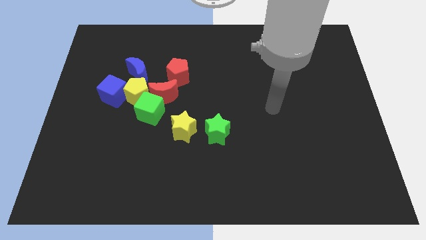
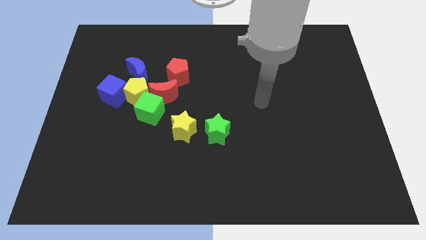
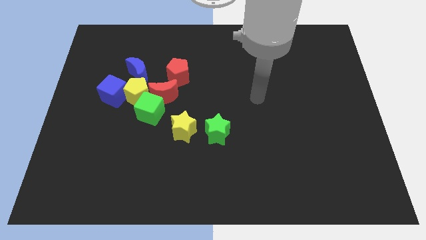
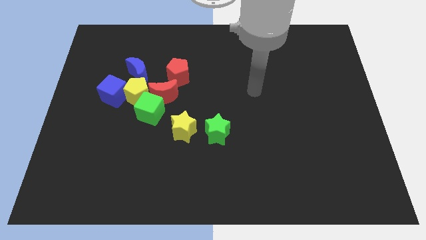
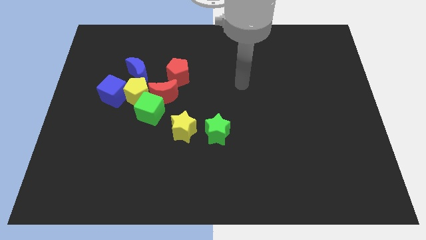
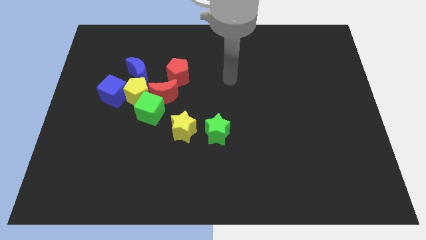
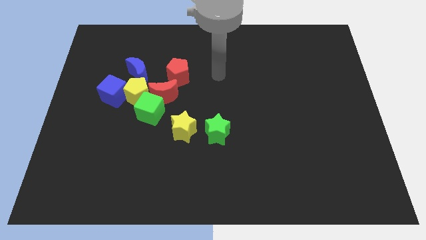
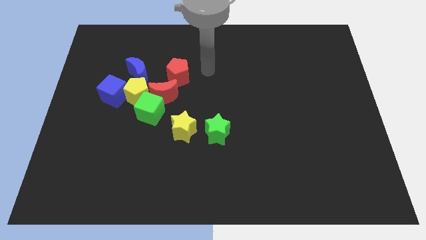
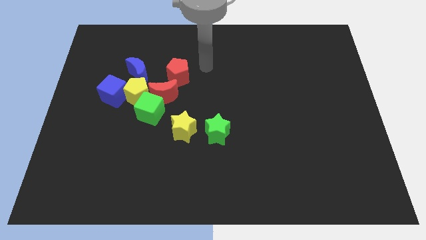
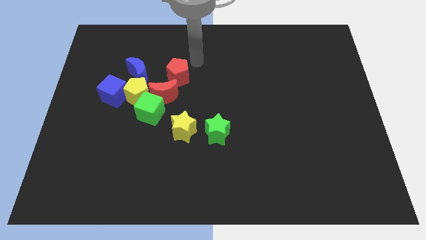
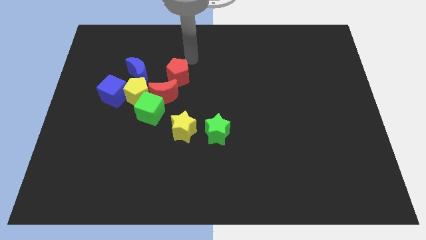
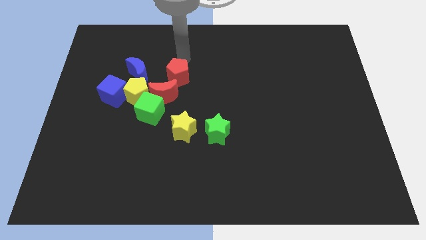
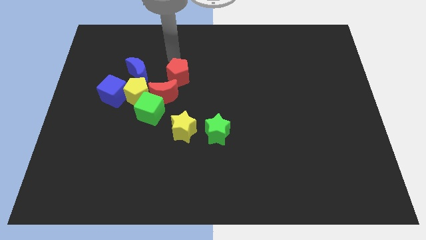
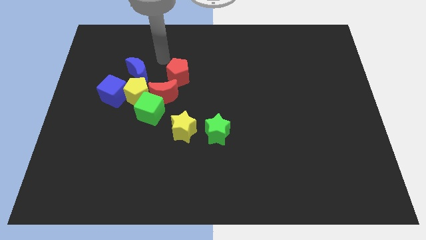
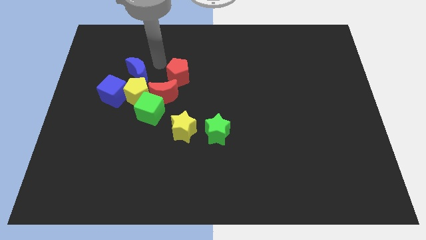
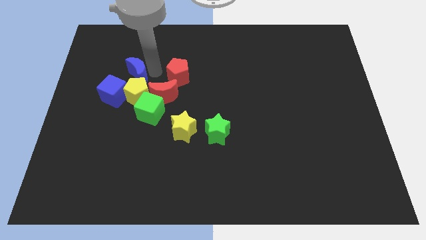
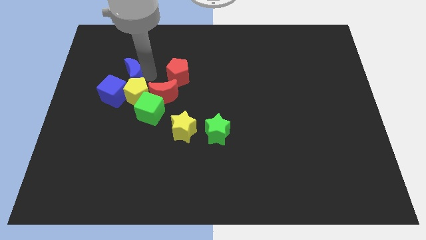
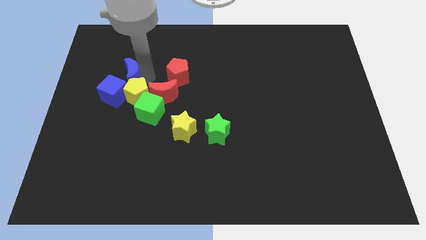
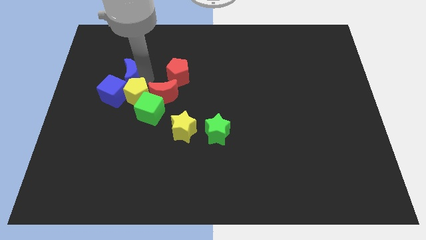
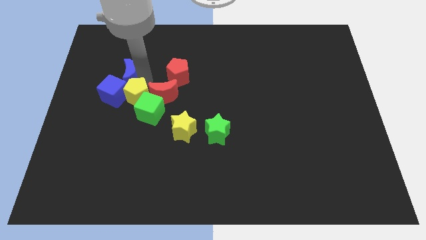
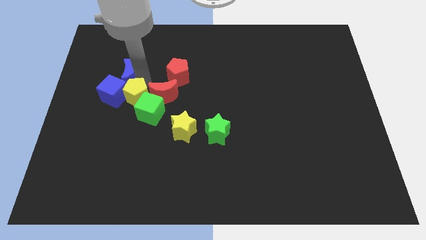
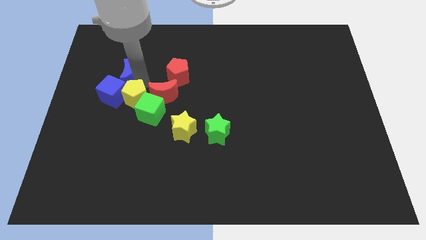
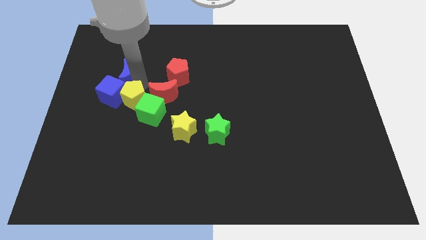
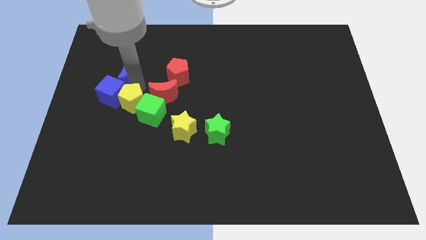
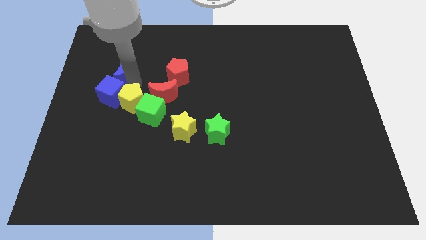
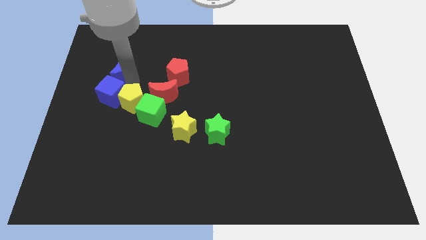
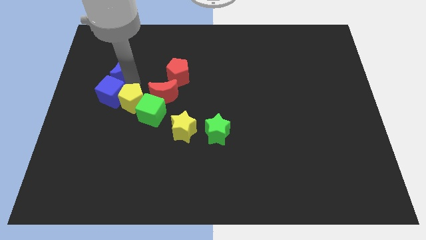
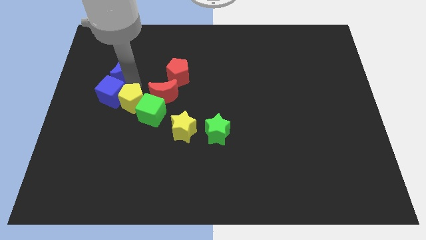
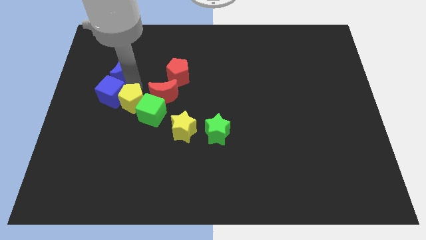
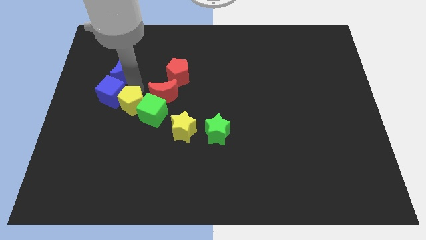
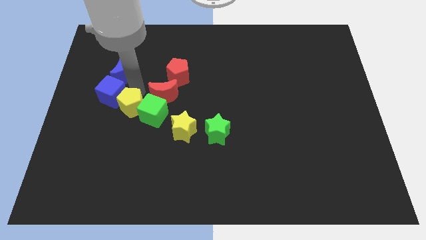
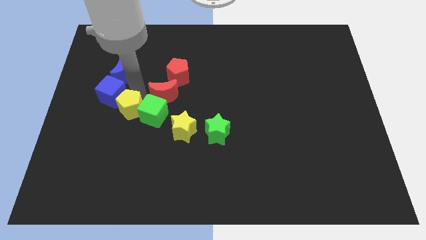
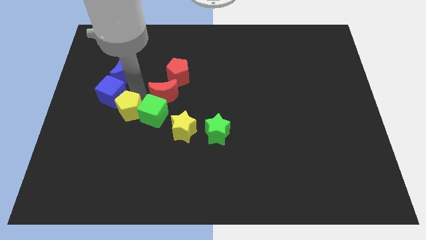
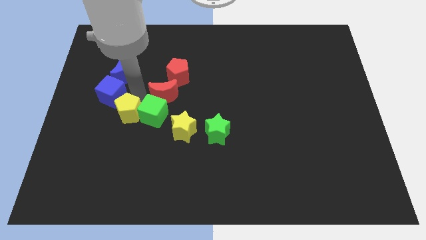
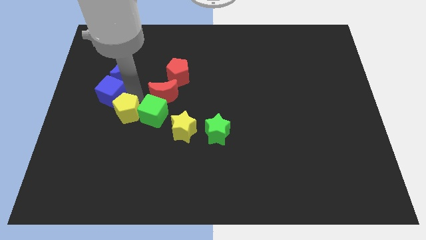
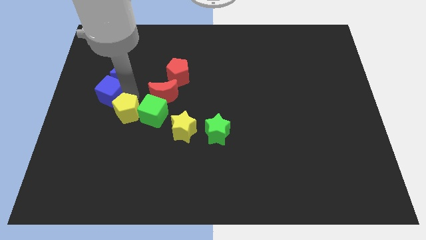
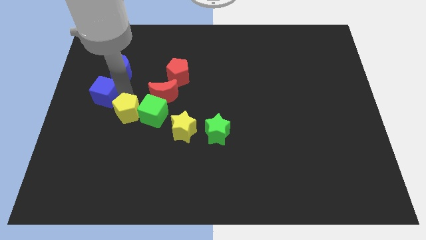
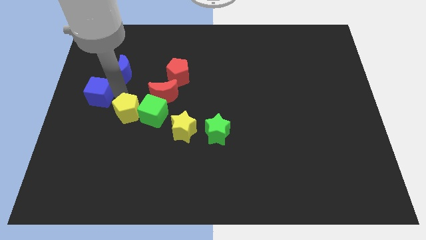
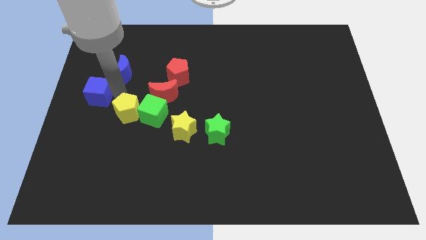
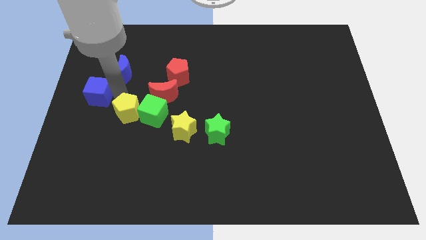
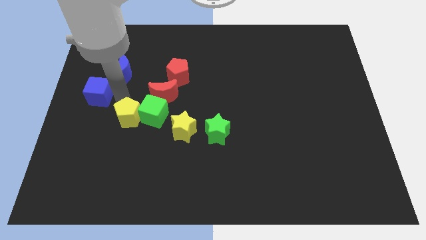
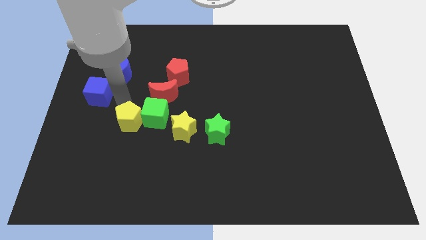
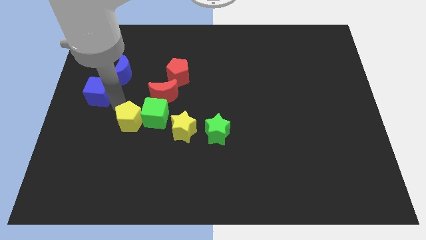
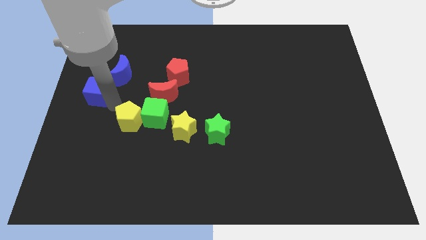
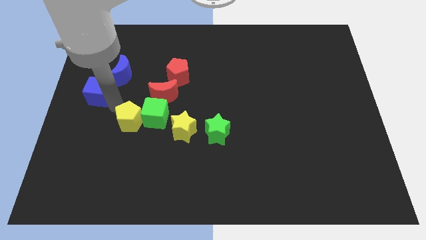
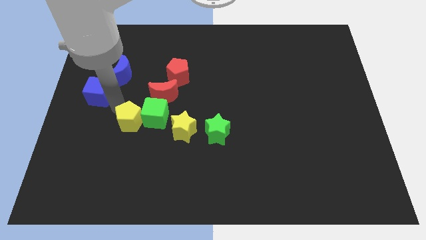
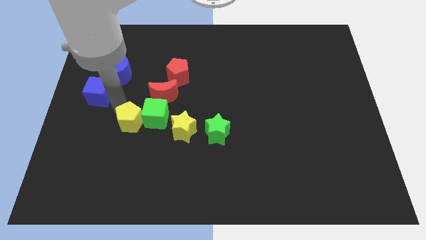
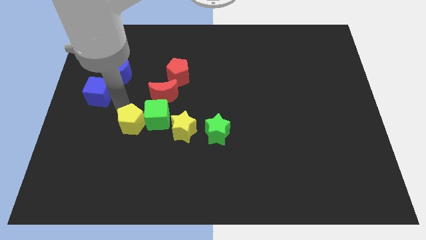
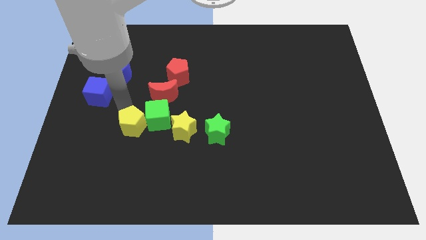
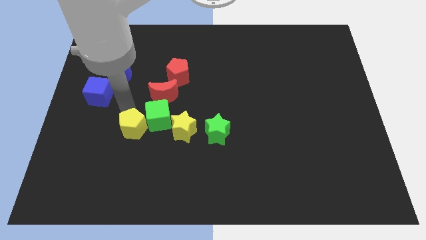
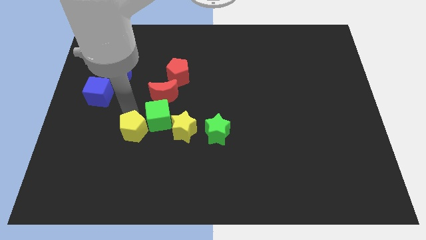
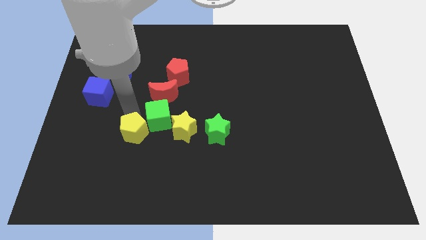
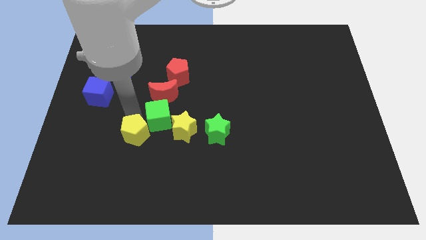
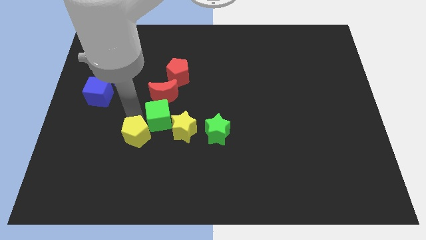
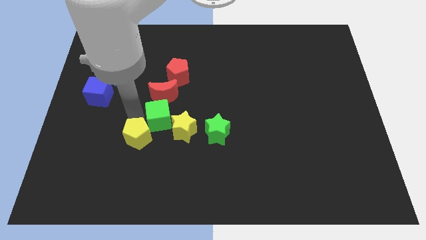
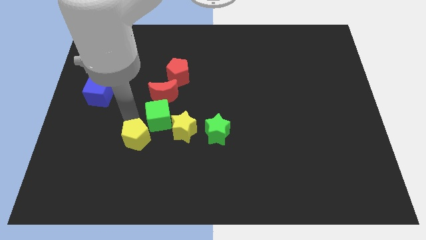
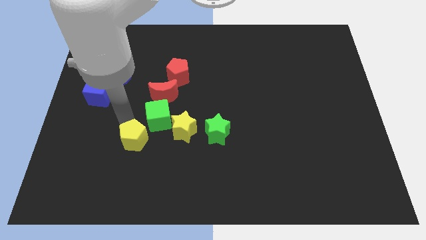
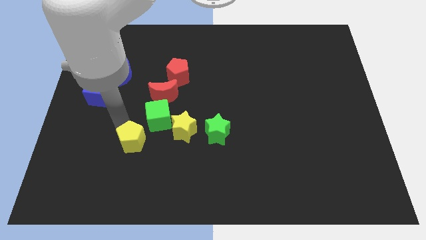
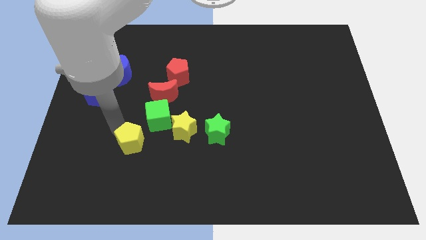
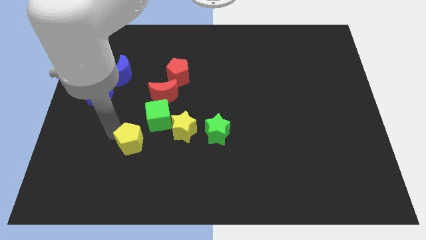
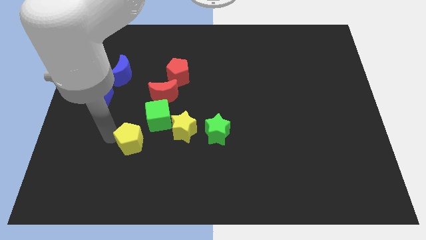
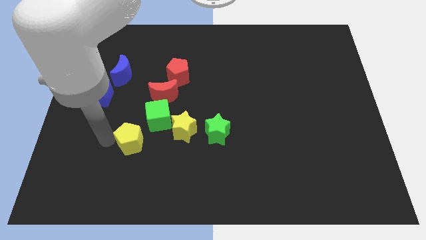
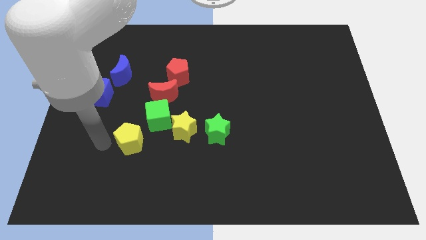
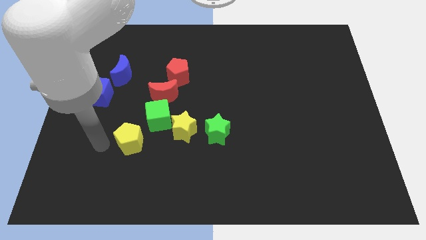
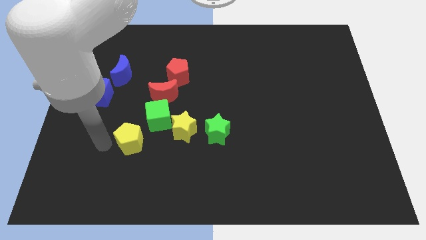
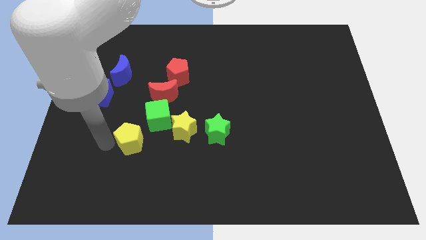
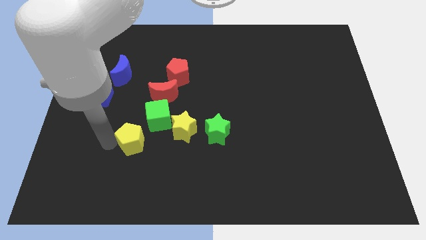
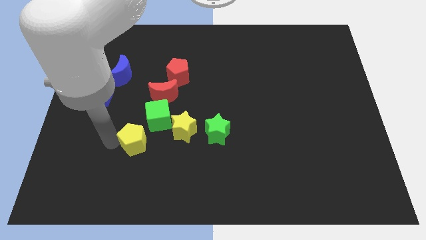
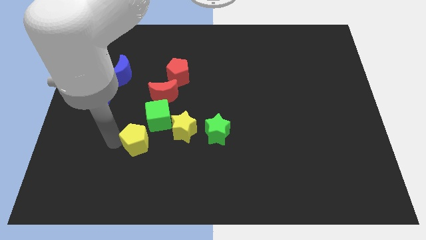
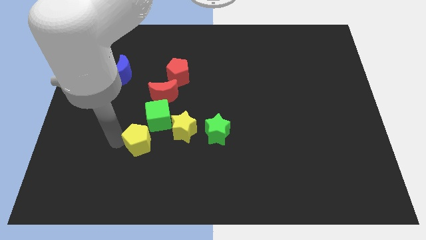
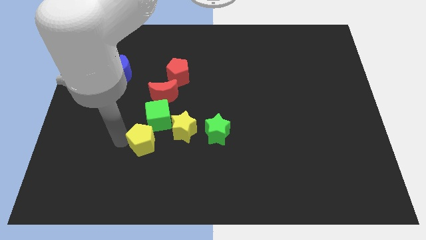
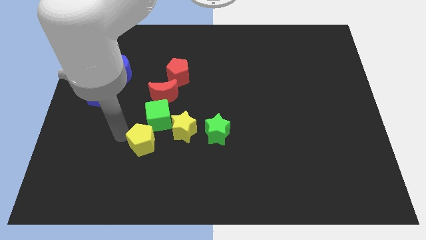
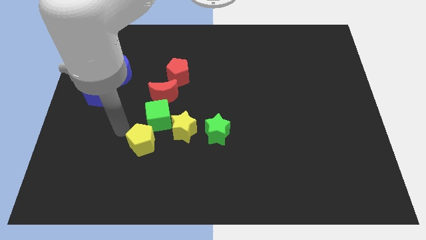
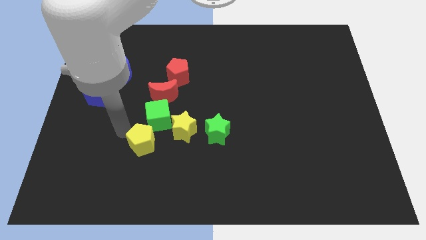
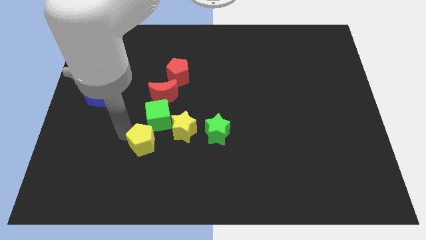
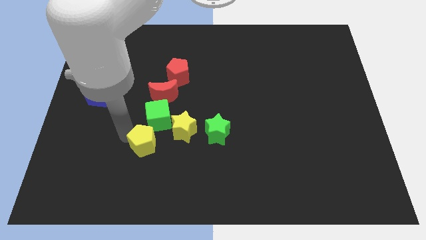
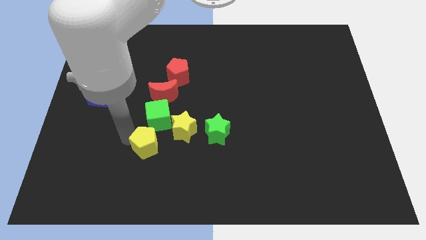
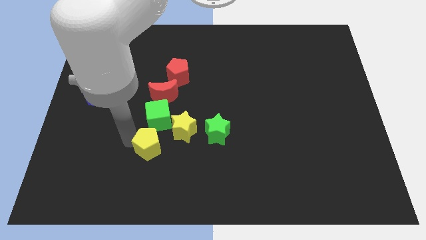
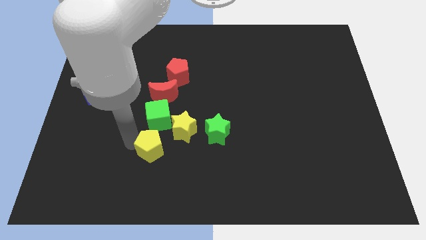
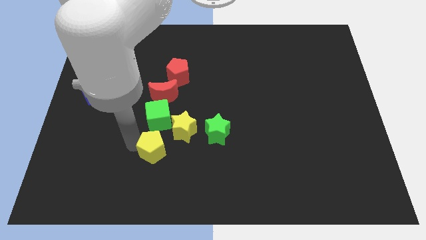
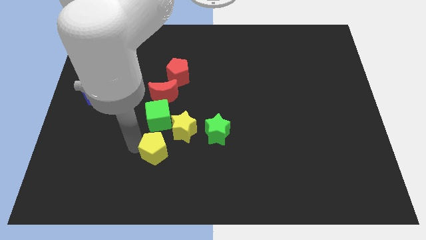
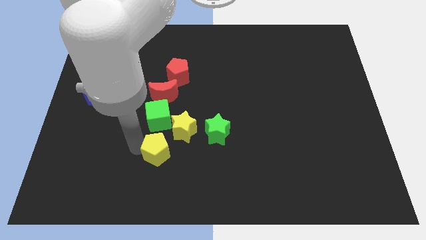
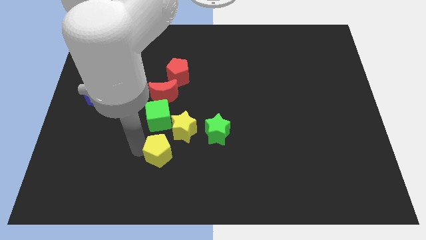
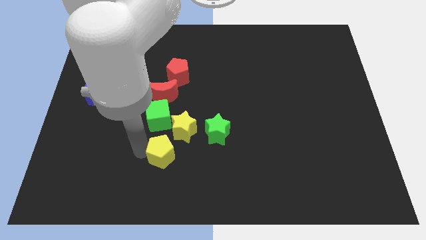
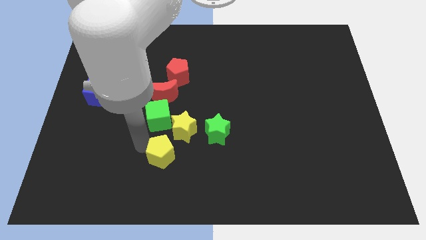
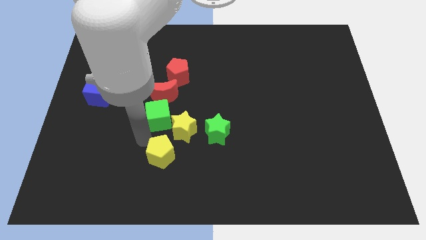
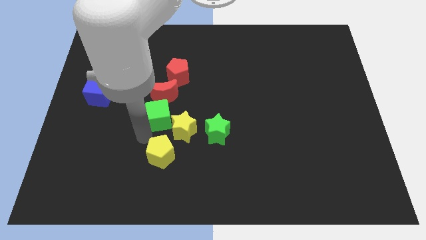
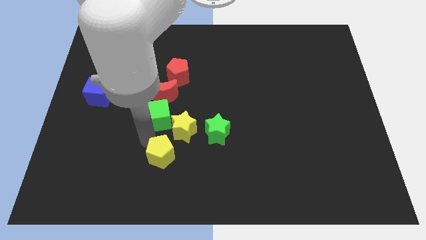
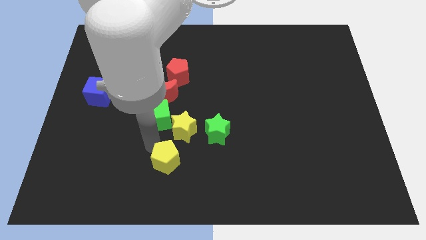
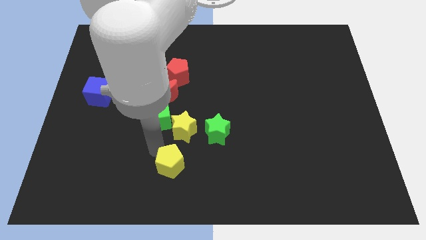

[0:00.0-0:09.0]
slide the yellow pentagon to the bottom
